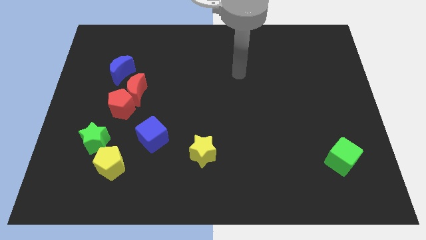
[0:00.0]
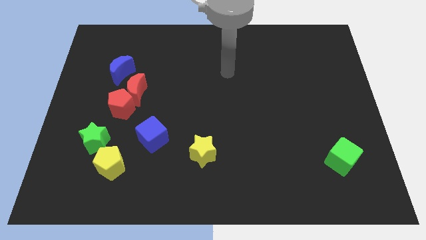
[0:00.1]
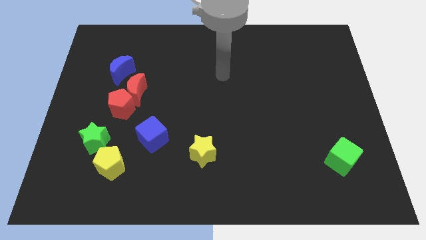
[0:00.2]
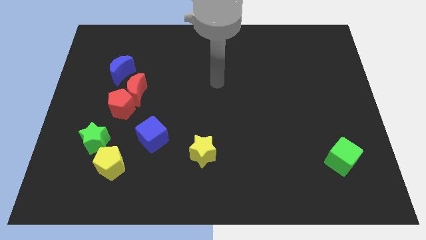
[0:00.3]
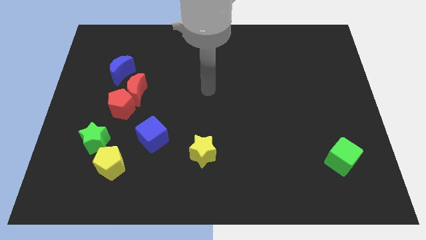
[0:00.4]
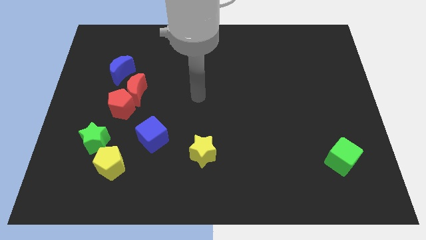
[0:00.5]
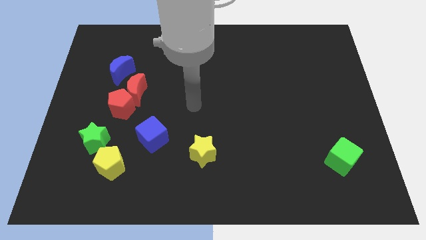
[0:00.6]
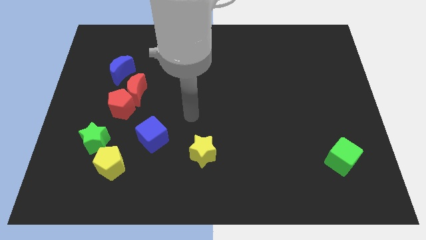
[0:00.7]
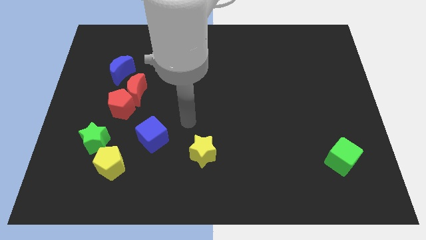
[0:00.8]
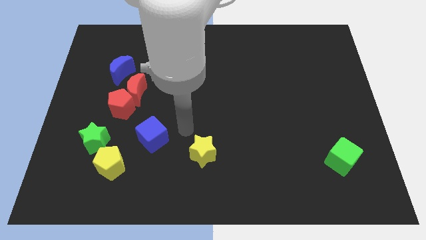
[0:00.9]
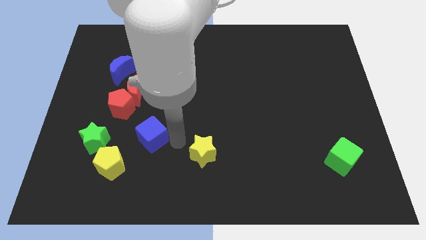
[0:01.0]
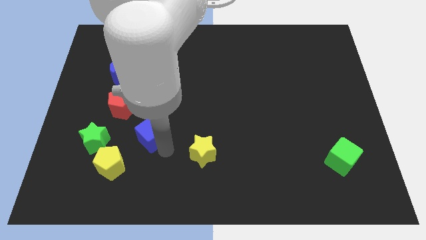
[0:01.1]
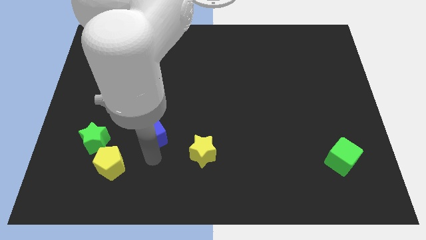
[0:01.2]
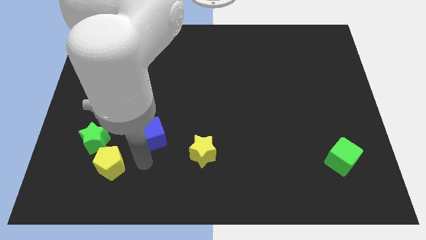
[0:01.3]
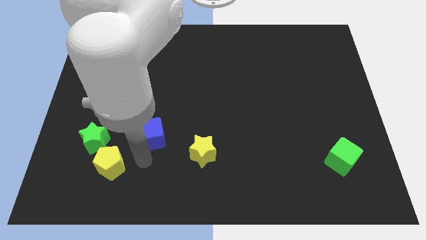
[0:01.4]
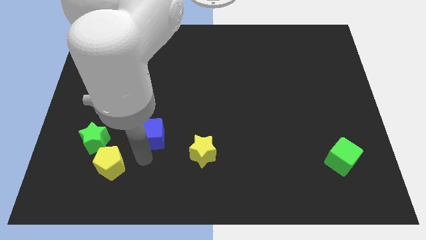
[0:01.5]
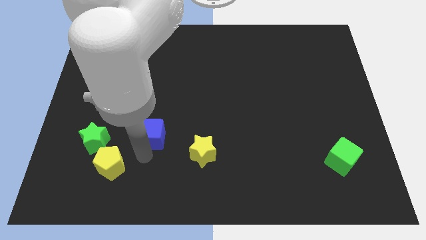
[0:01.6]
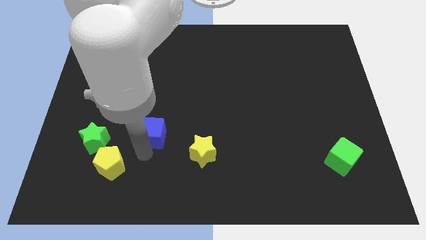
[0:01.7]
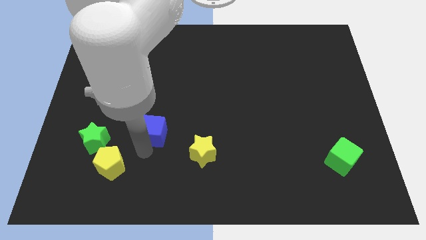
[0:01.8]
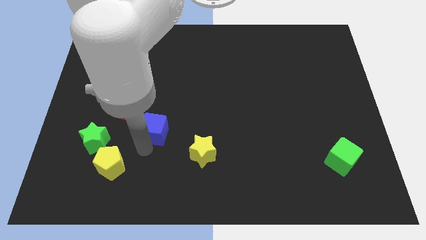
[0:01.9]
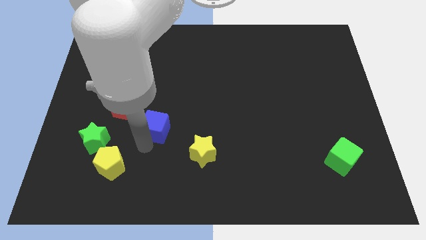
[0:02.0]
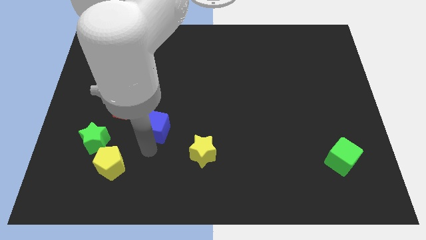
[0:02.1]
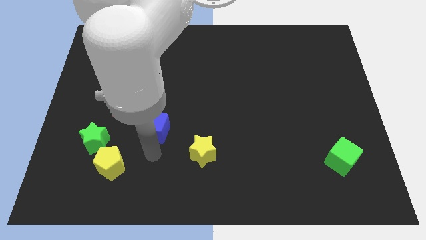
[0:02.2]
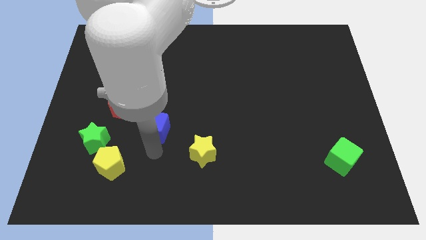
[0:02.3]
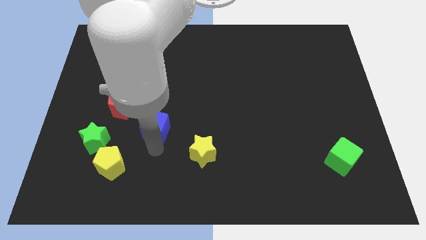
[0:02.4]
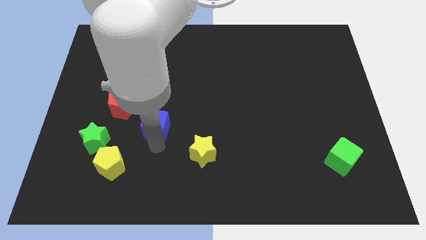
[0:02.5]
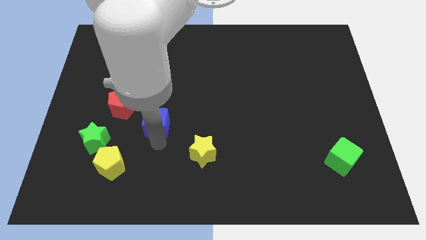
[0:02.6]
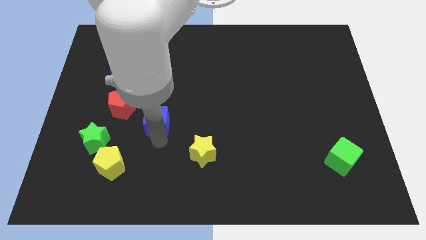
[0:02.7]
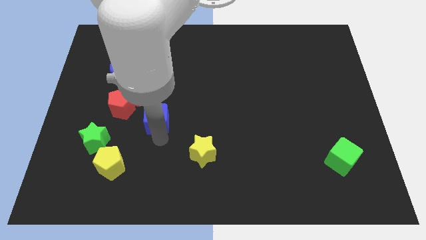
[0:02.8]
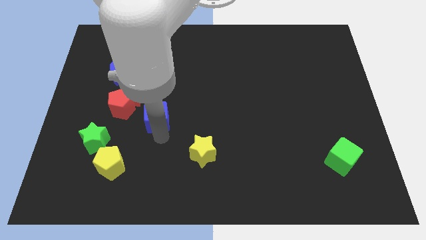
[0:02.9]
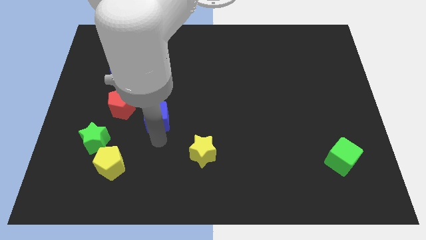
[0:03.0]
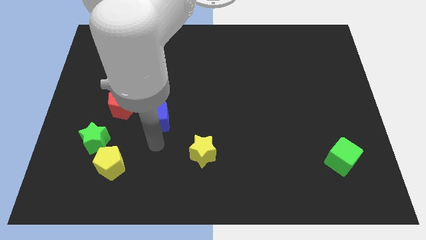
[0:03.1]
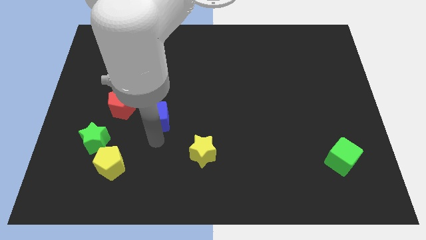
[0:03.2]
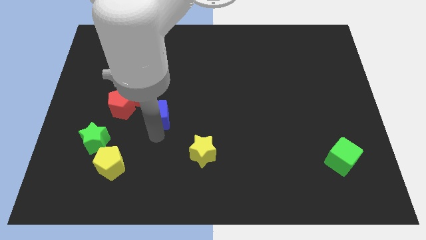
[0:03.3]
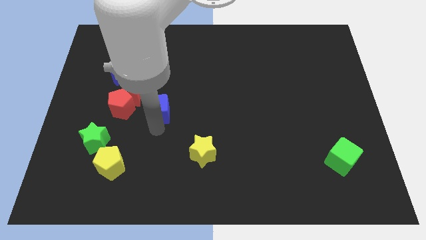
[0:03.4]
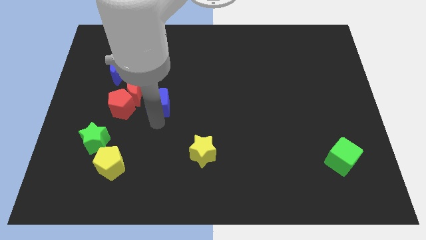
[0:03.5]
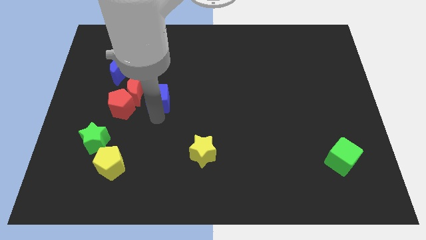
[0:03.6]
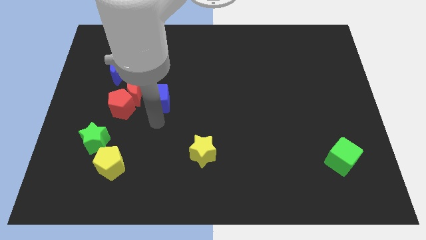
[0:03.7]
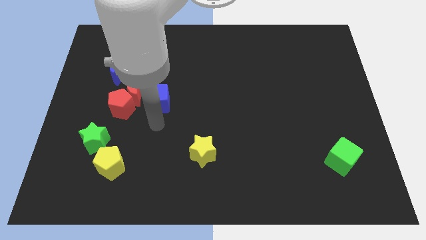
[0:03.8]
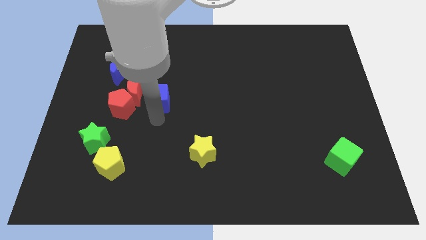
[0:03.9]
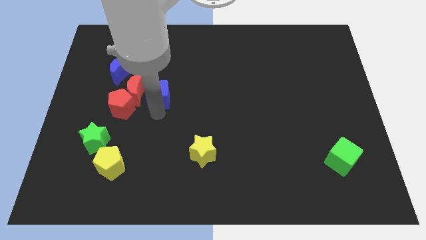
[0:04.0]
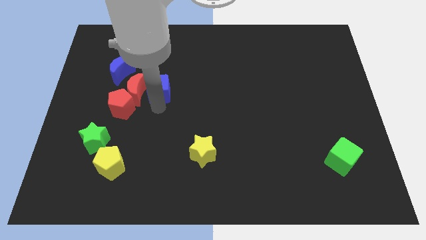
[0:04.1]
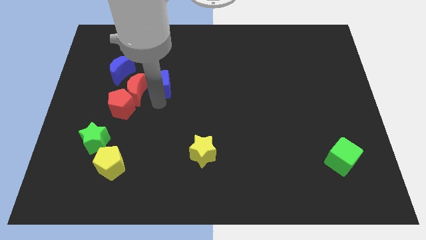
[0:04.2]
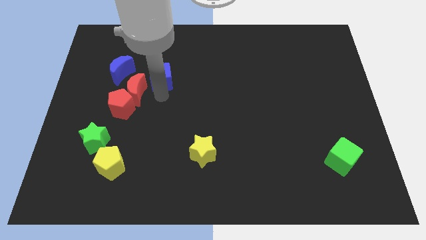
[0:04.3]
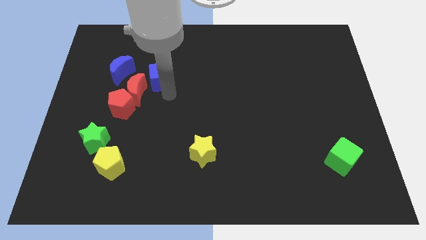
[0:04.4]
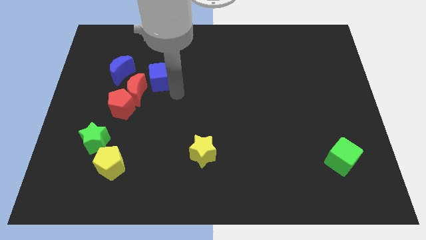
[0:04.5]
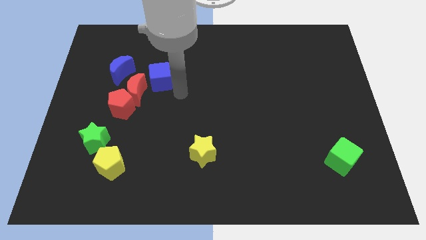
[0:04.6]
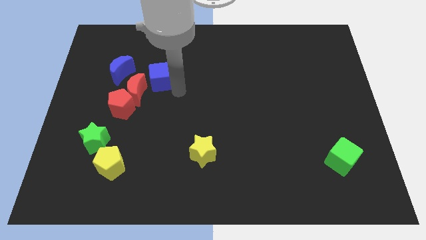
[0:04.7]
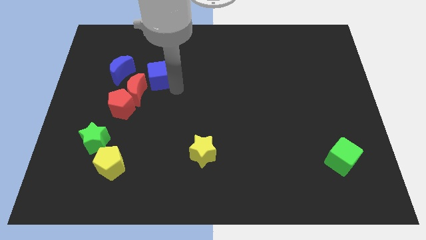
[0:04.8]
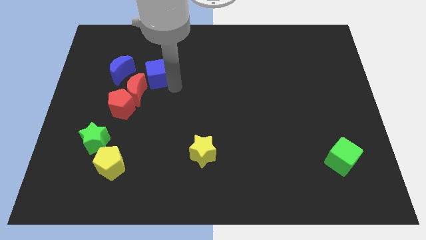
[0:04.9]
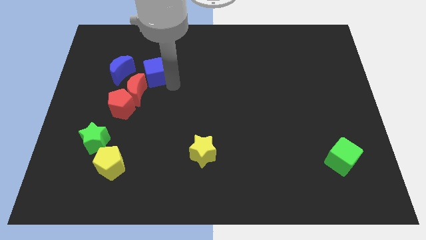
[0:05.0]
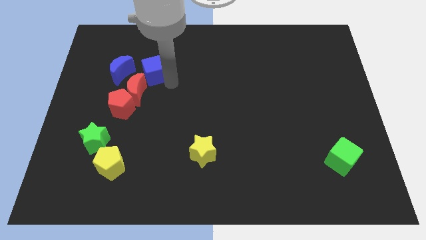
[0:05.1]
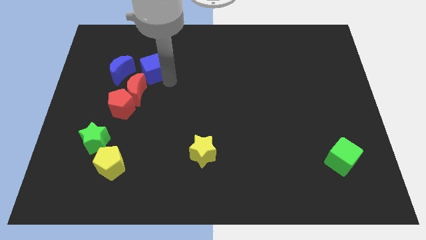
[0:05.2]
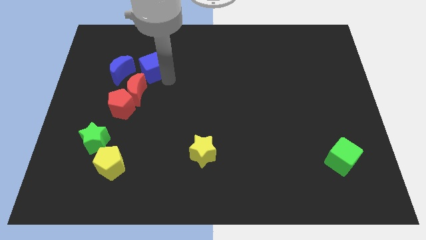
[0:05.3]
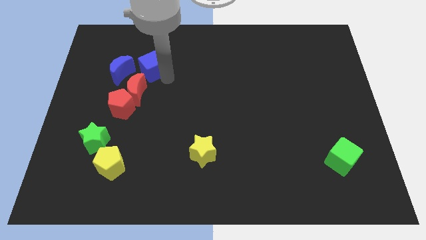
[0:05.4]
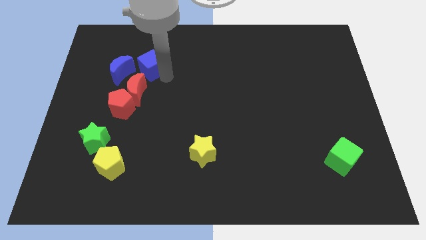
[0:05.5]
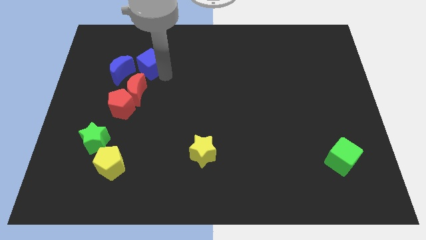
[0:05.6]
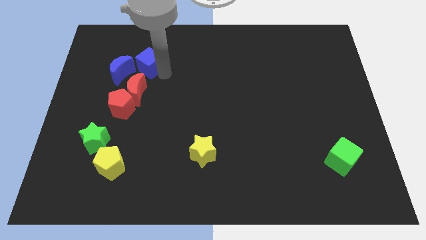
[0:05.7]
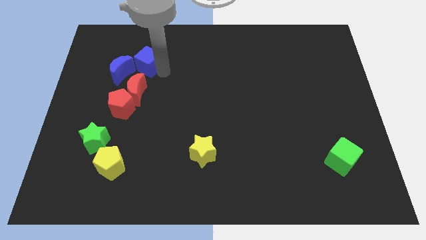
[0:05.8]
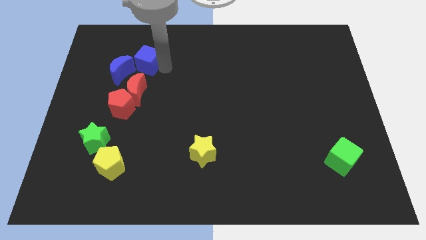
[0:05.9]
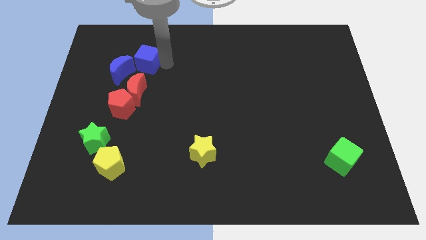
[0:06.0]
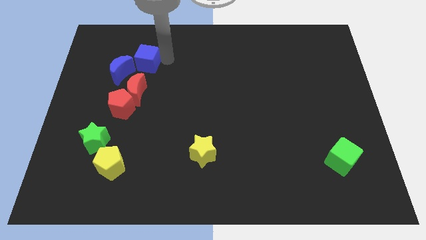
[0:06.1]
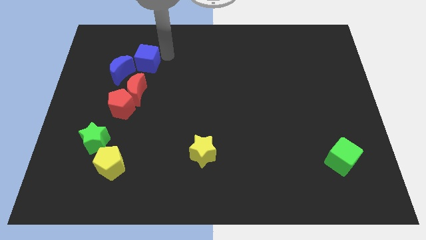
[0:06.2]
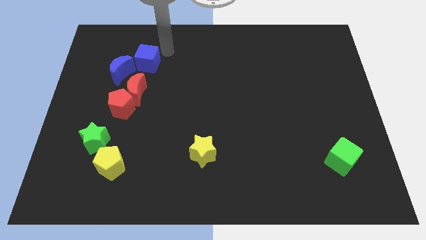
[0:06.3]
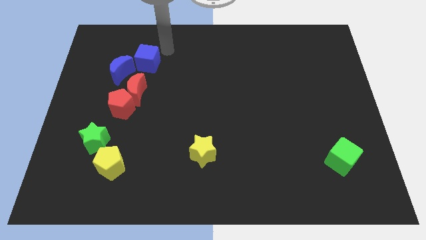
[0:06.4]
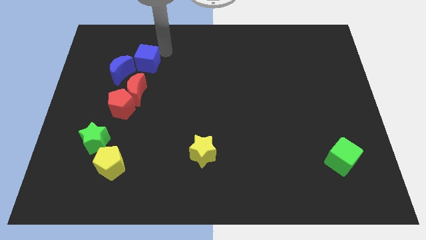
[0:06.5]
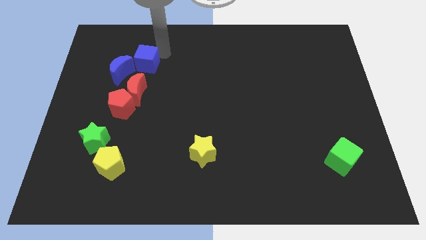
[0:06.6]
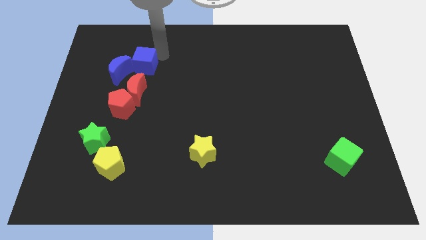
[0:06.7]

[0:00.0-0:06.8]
push the blue cube to the top of the red pentagon
